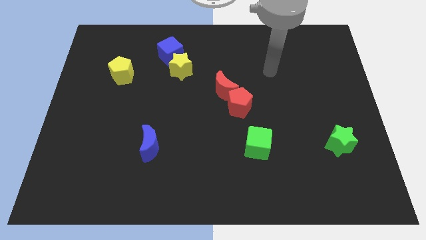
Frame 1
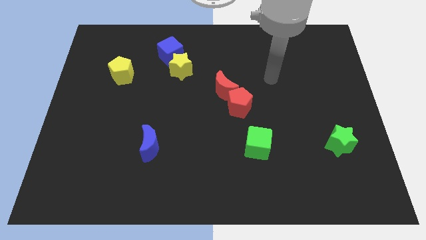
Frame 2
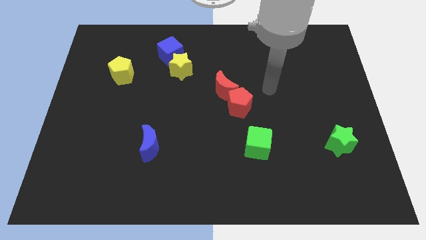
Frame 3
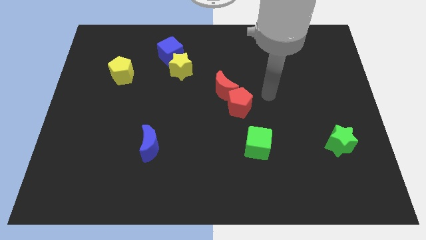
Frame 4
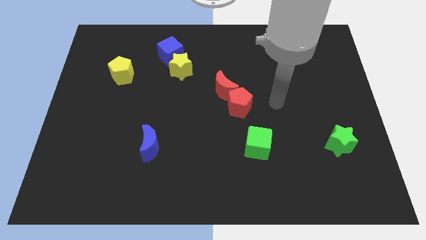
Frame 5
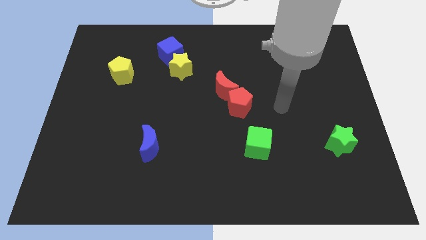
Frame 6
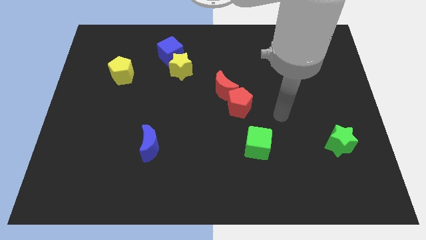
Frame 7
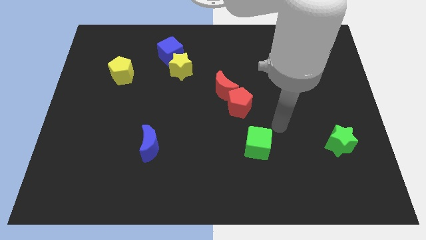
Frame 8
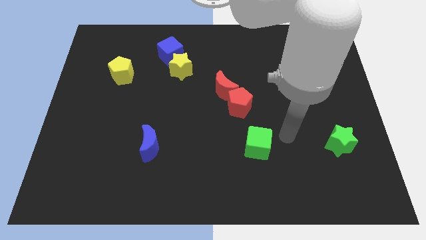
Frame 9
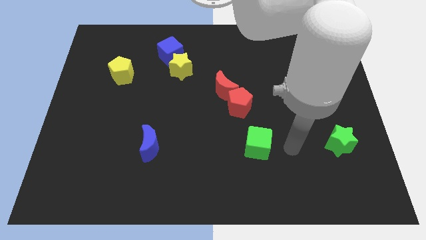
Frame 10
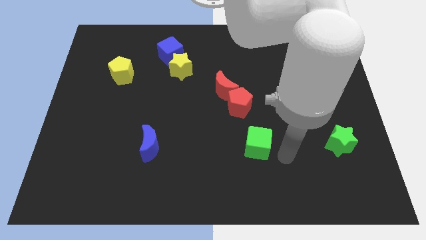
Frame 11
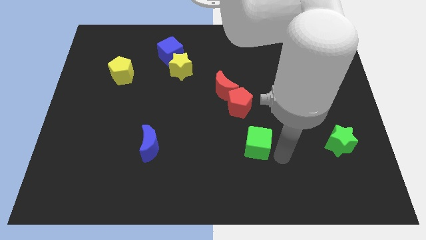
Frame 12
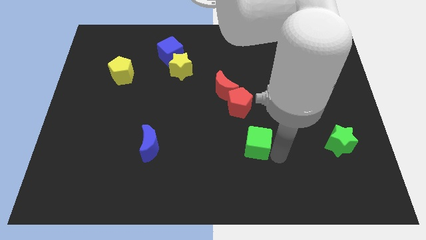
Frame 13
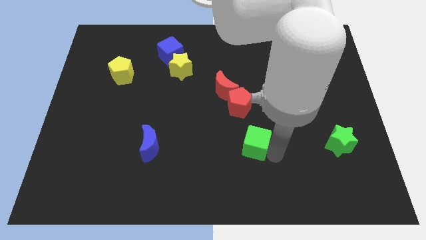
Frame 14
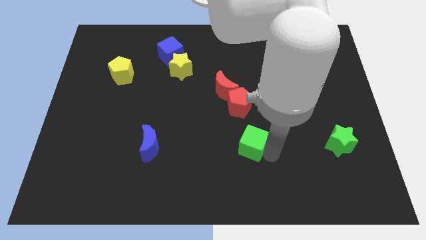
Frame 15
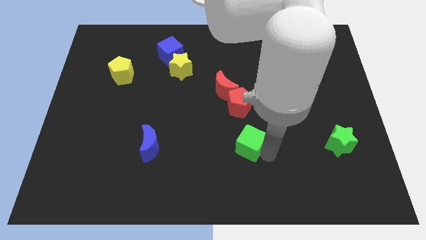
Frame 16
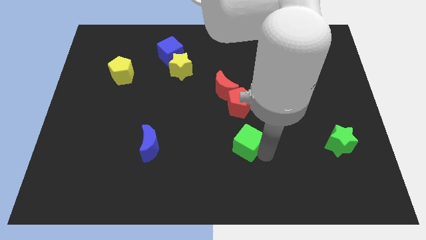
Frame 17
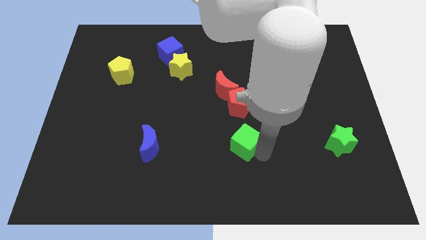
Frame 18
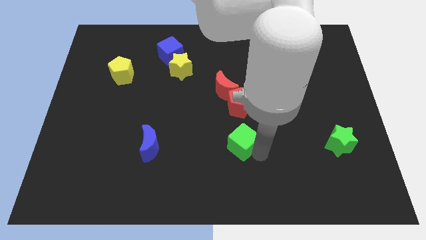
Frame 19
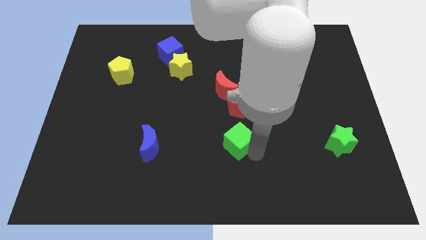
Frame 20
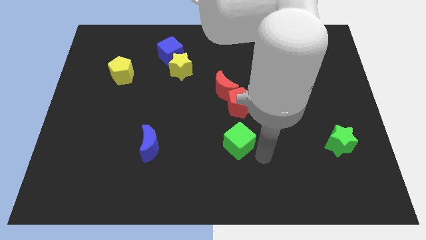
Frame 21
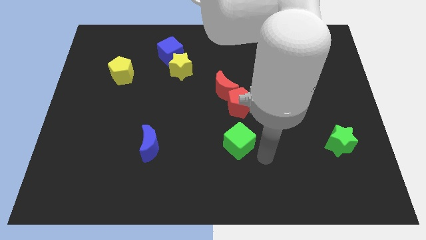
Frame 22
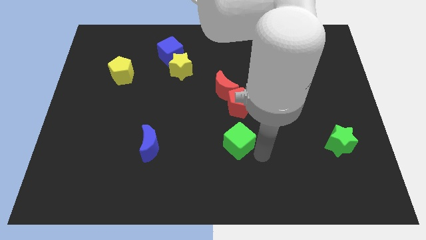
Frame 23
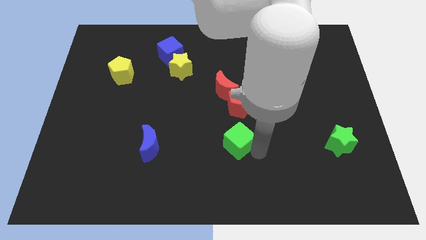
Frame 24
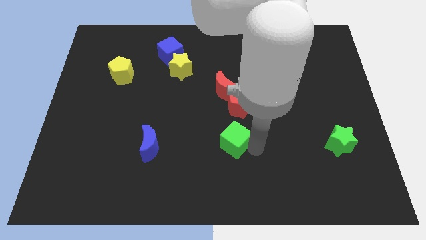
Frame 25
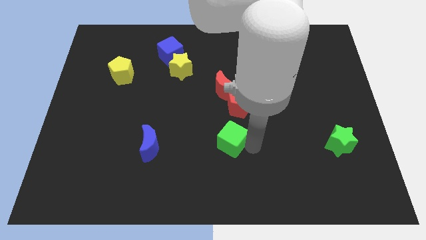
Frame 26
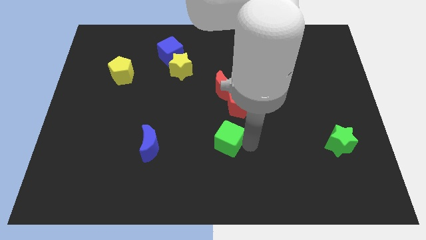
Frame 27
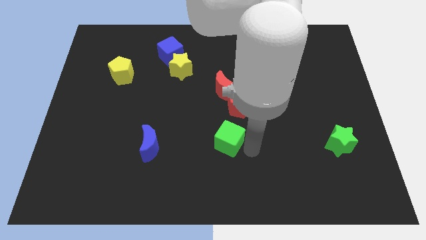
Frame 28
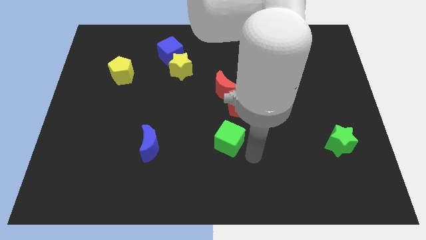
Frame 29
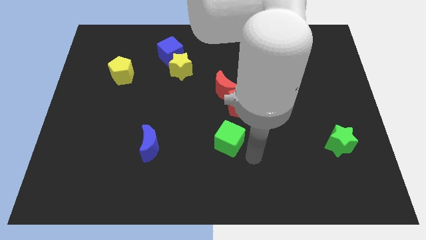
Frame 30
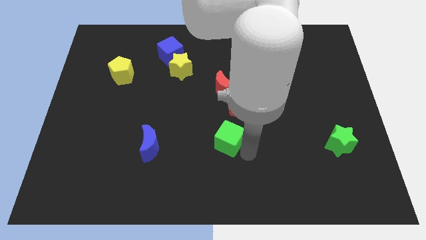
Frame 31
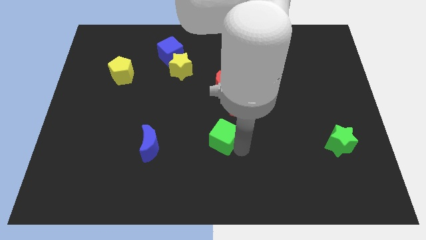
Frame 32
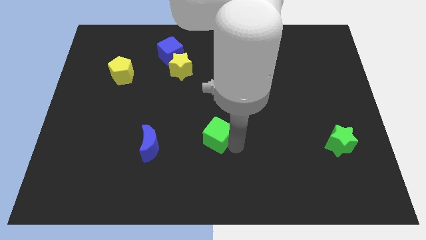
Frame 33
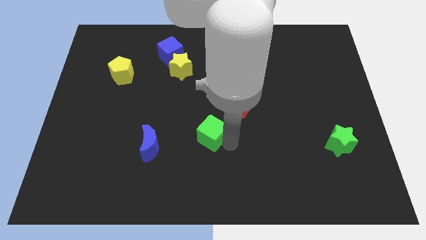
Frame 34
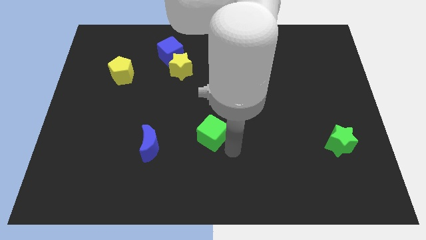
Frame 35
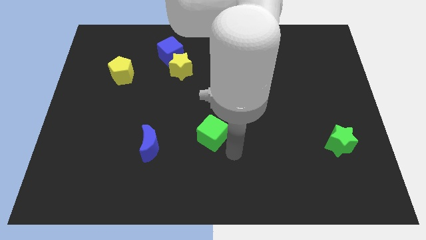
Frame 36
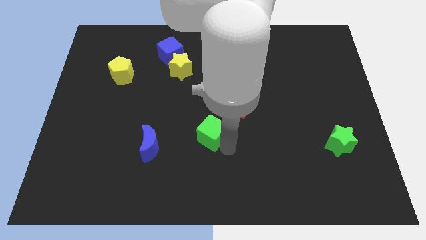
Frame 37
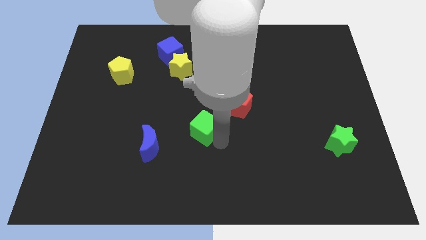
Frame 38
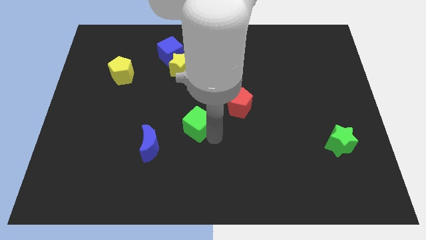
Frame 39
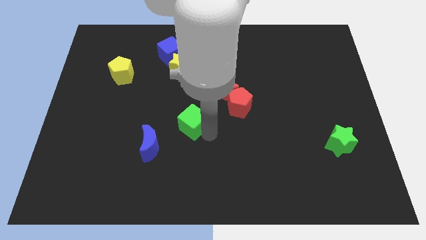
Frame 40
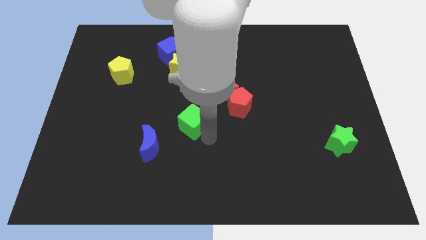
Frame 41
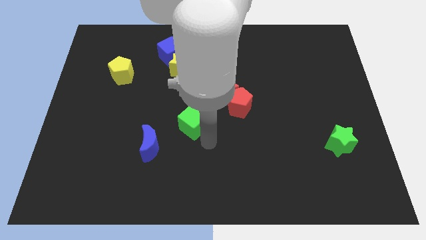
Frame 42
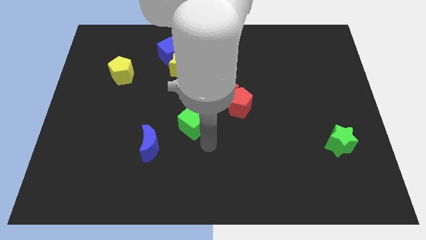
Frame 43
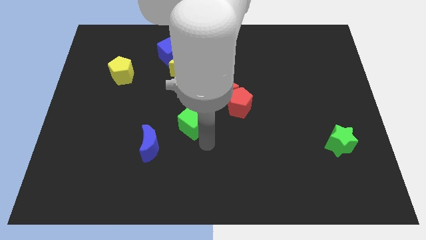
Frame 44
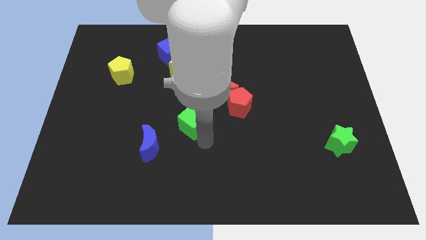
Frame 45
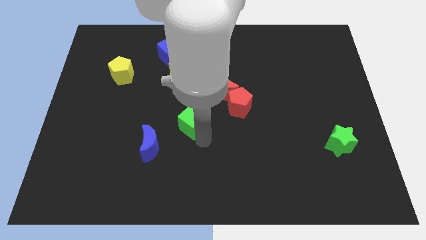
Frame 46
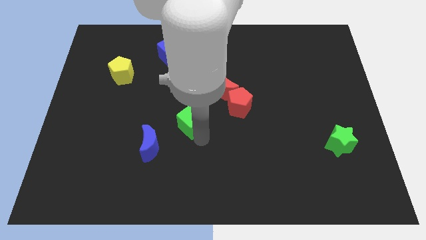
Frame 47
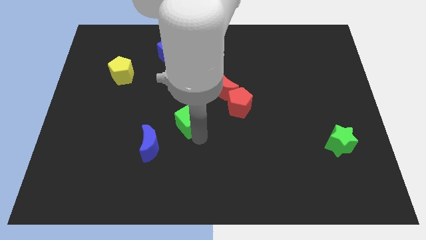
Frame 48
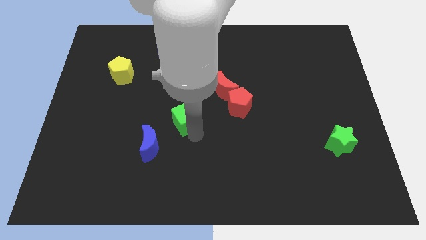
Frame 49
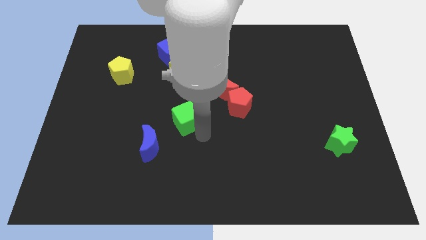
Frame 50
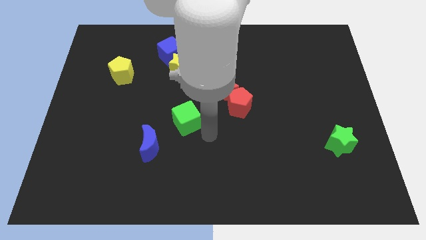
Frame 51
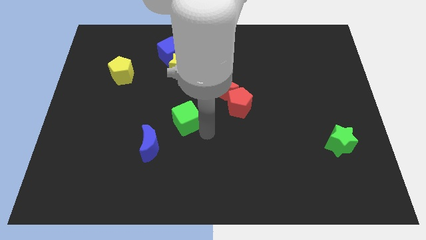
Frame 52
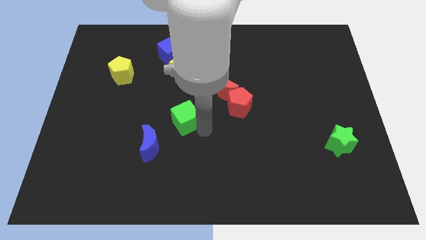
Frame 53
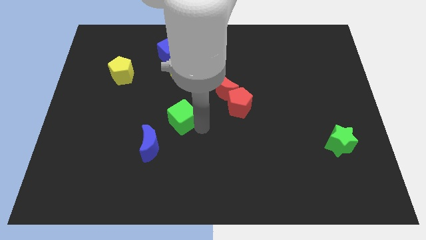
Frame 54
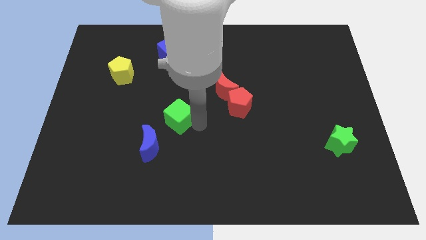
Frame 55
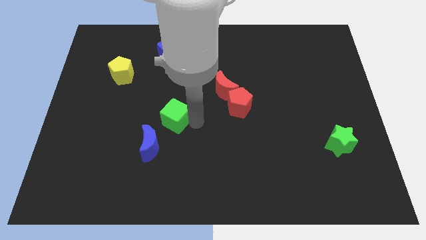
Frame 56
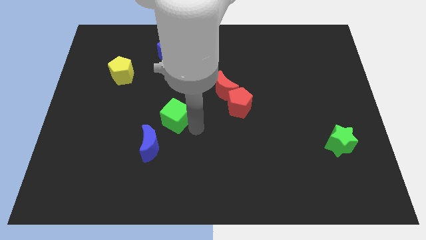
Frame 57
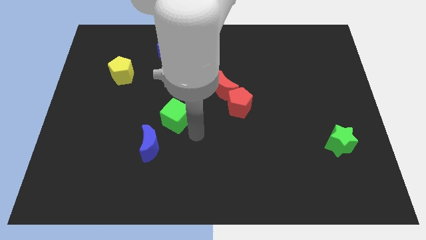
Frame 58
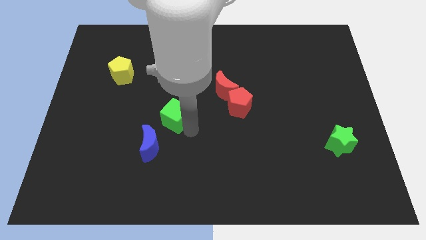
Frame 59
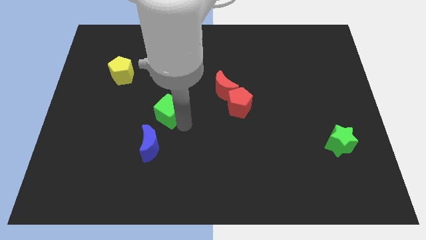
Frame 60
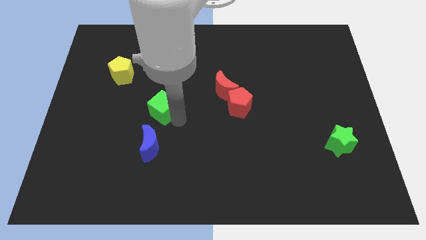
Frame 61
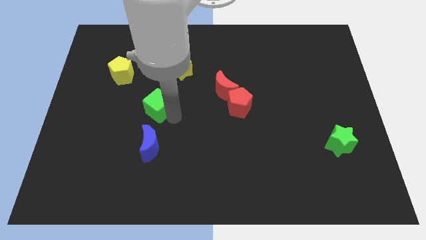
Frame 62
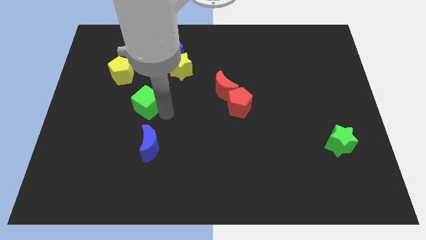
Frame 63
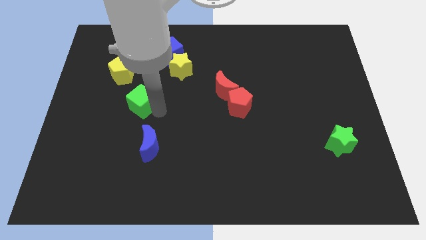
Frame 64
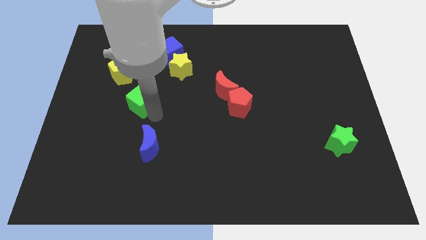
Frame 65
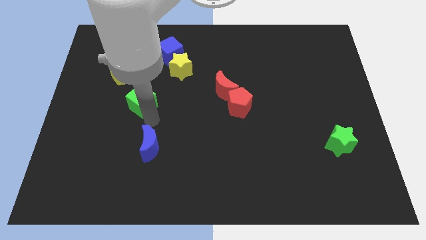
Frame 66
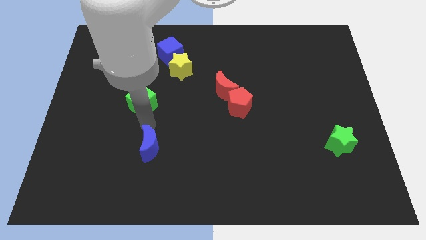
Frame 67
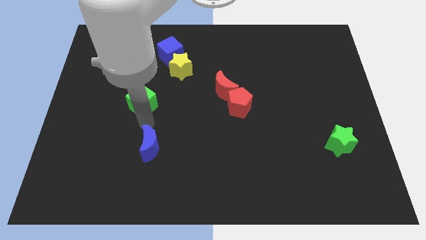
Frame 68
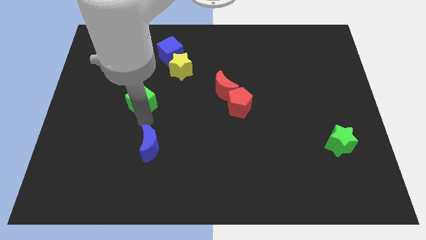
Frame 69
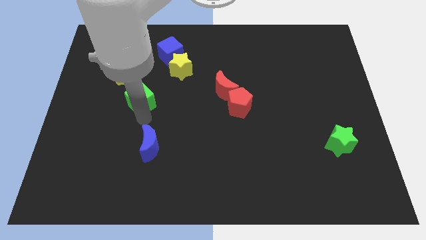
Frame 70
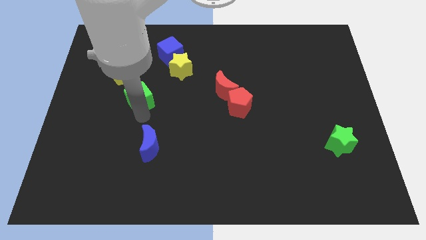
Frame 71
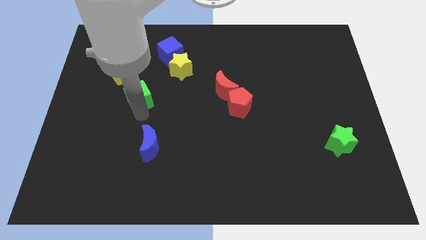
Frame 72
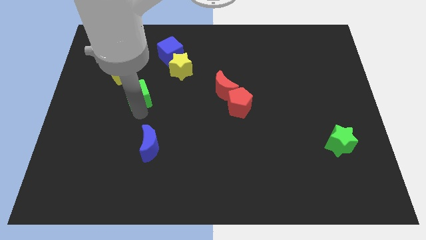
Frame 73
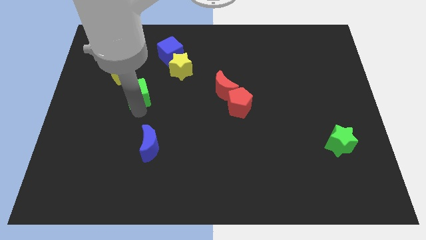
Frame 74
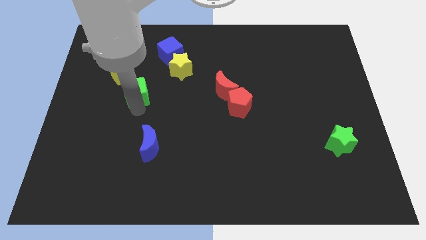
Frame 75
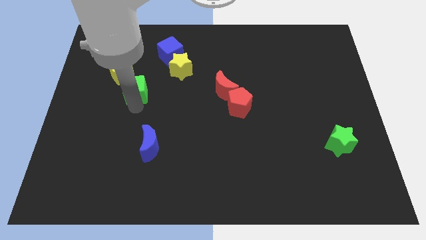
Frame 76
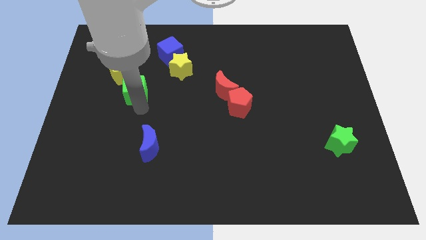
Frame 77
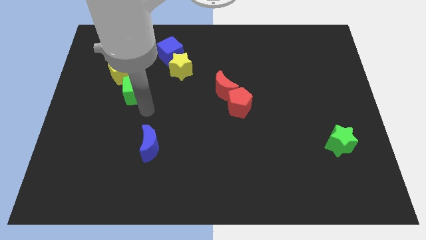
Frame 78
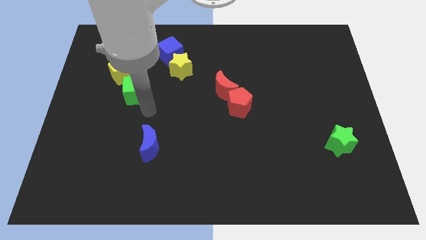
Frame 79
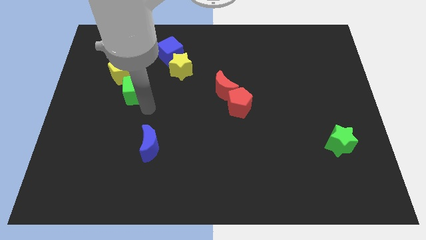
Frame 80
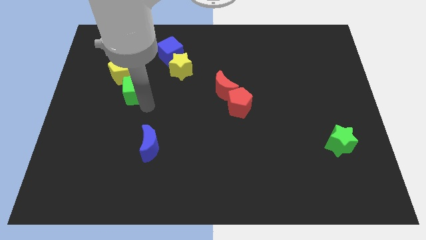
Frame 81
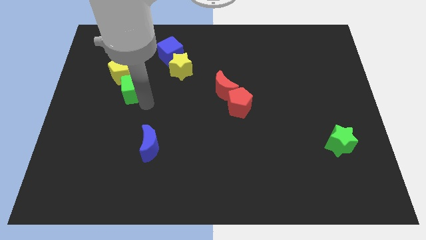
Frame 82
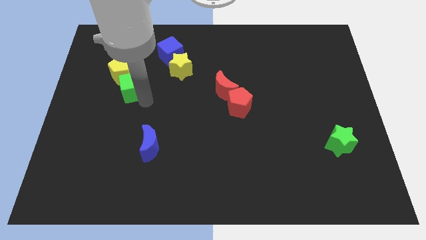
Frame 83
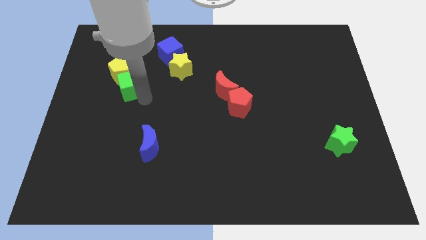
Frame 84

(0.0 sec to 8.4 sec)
push the green cube close to the yellow pentagon
